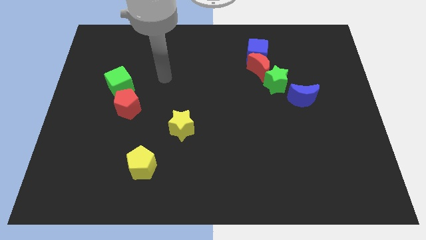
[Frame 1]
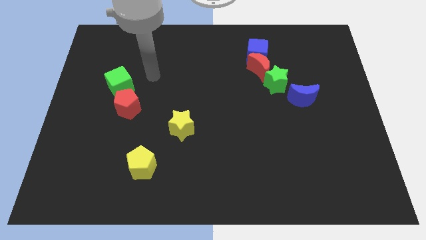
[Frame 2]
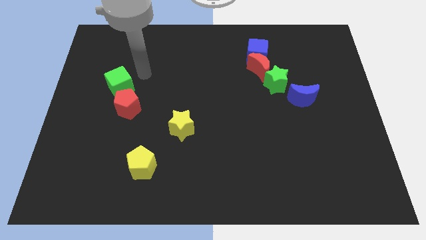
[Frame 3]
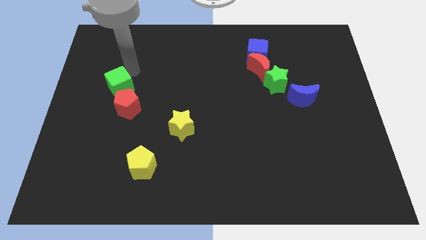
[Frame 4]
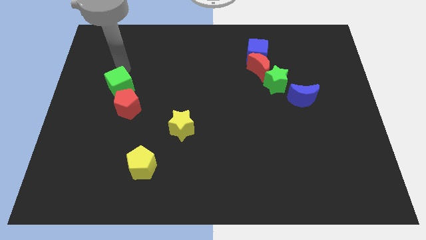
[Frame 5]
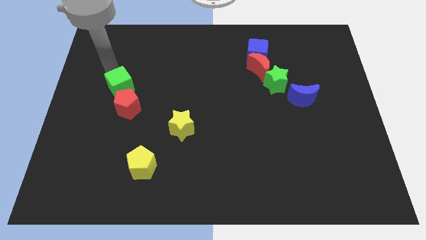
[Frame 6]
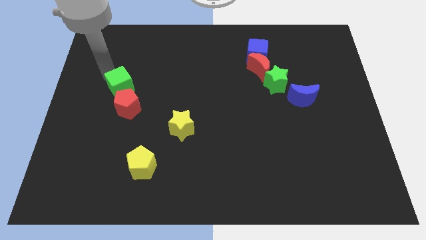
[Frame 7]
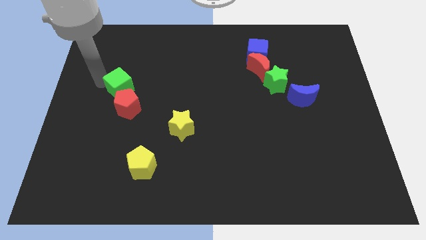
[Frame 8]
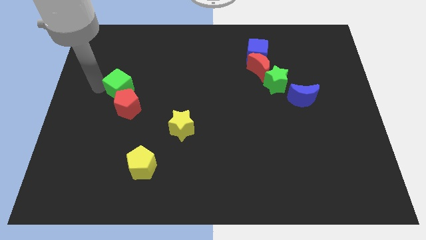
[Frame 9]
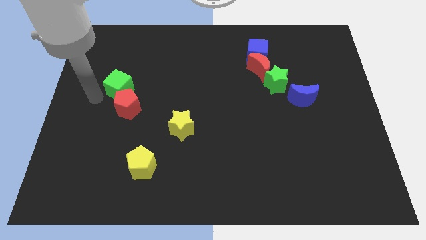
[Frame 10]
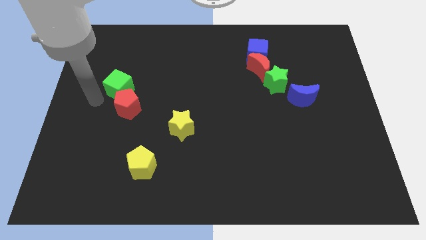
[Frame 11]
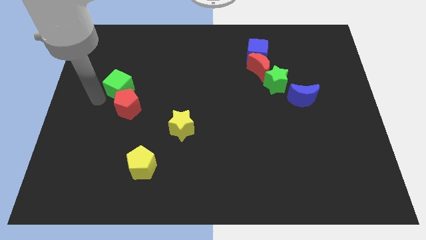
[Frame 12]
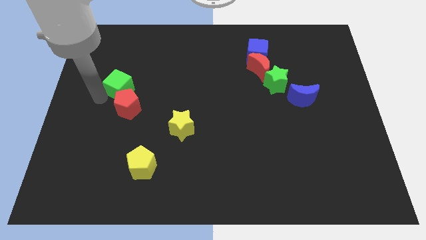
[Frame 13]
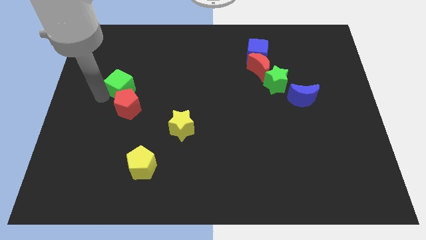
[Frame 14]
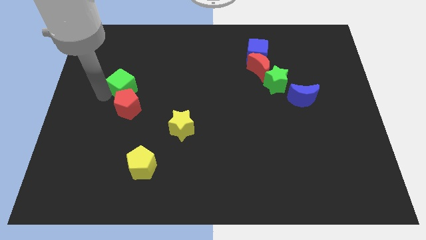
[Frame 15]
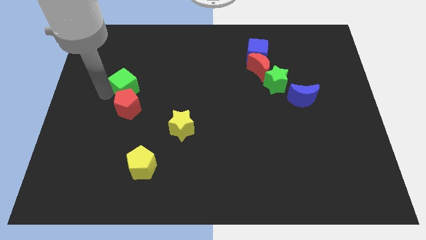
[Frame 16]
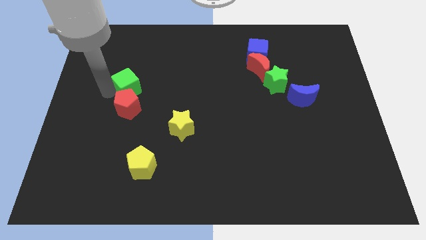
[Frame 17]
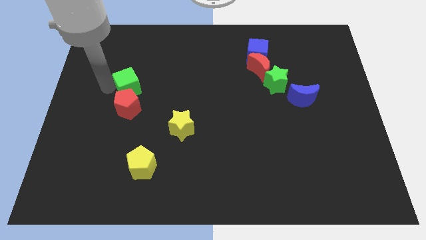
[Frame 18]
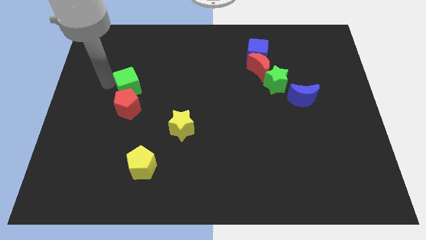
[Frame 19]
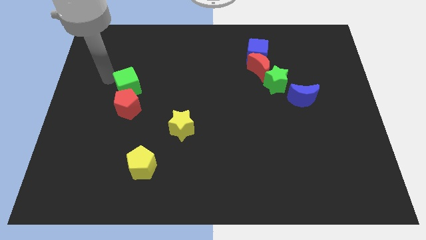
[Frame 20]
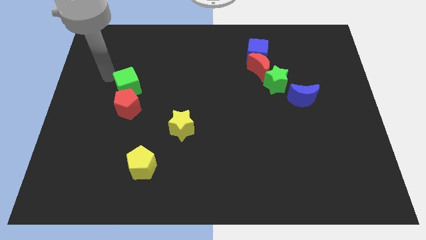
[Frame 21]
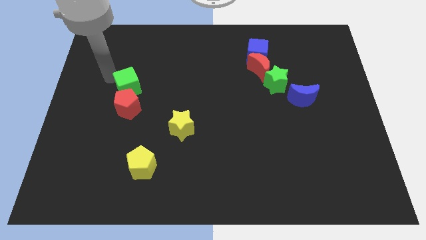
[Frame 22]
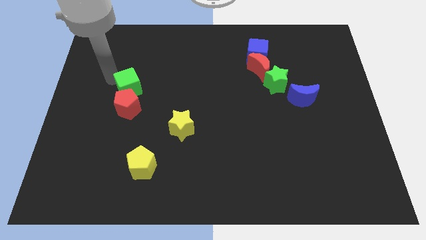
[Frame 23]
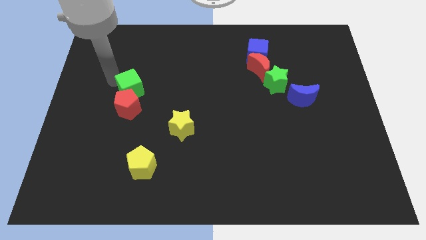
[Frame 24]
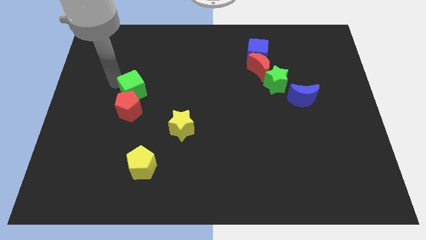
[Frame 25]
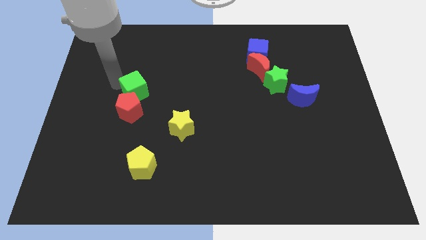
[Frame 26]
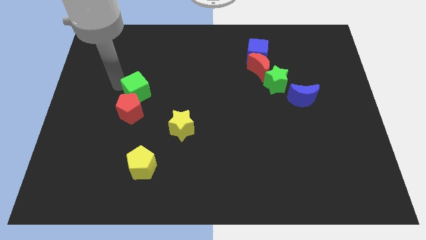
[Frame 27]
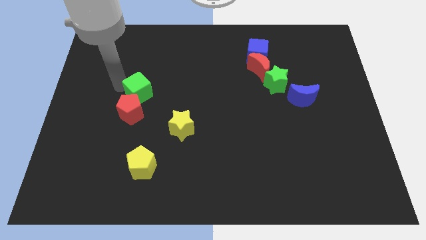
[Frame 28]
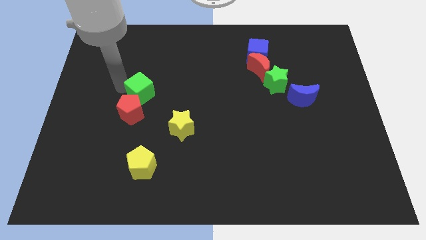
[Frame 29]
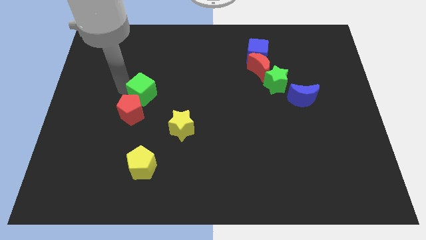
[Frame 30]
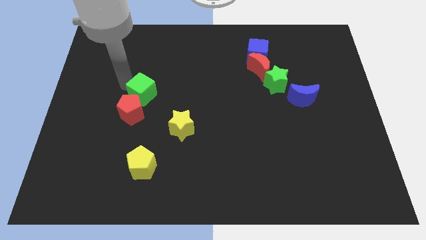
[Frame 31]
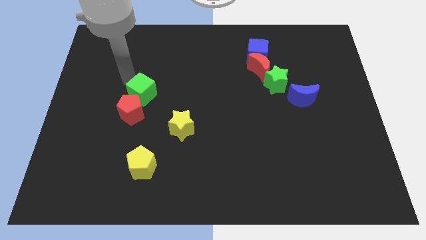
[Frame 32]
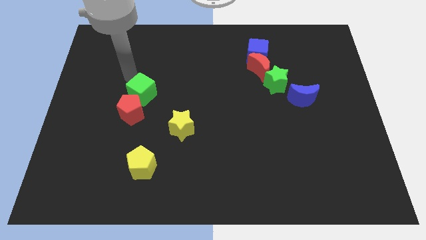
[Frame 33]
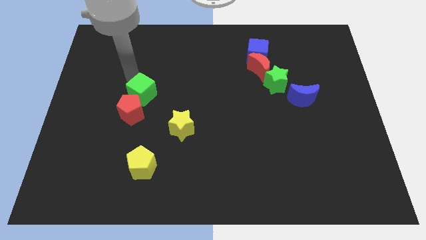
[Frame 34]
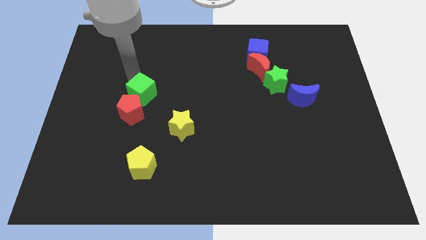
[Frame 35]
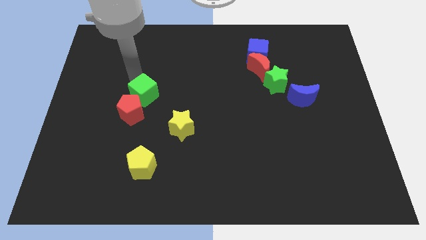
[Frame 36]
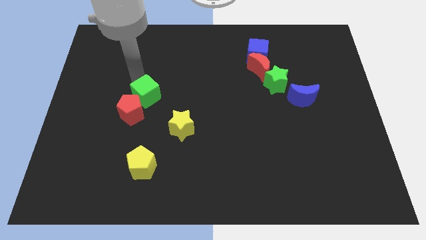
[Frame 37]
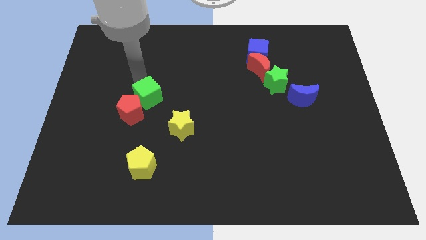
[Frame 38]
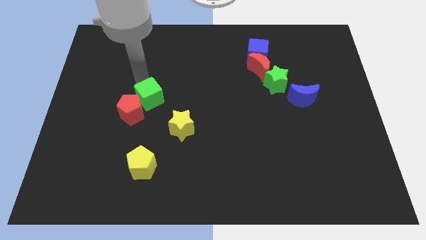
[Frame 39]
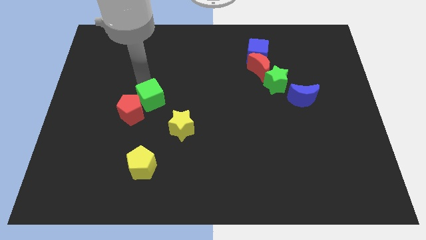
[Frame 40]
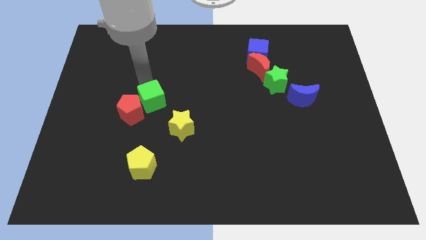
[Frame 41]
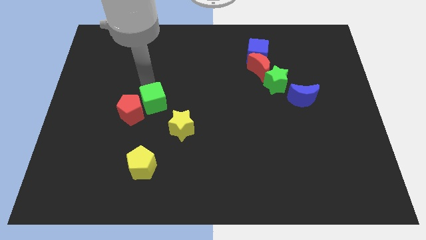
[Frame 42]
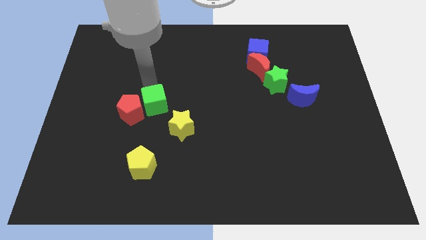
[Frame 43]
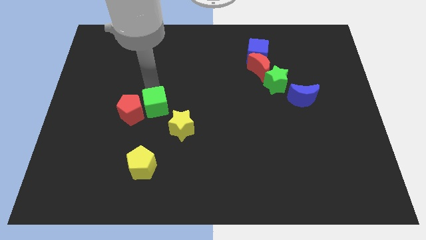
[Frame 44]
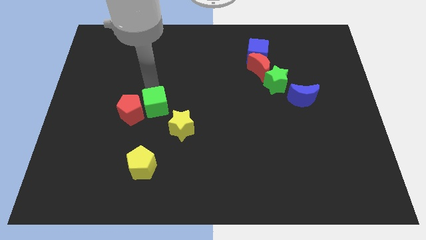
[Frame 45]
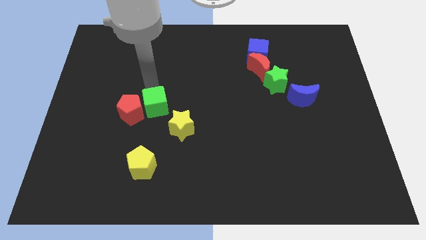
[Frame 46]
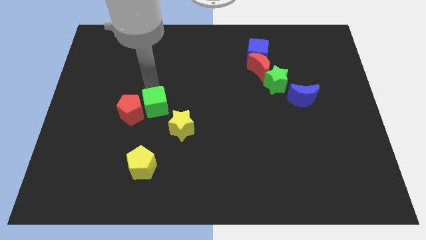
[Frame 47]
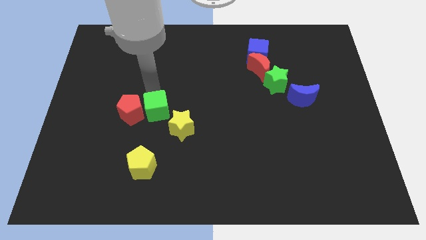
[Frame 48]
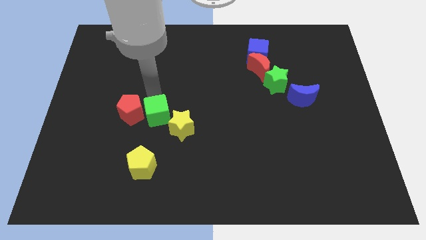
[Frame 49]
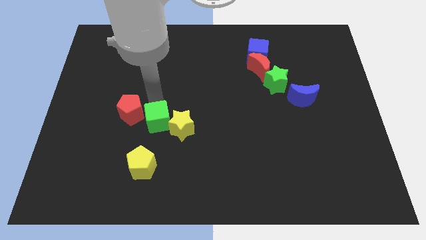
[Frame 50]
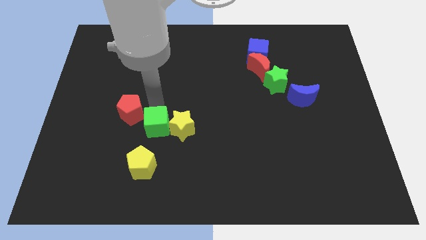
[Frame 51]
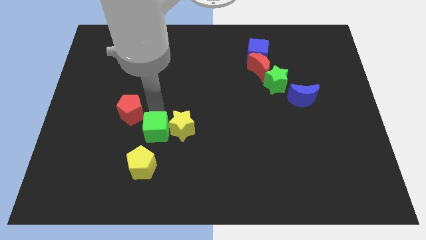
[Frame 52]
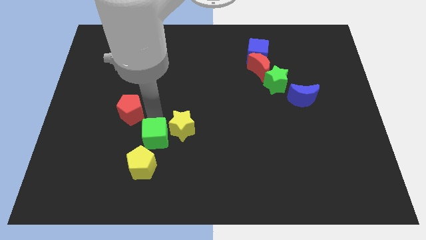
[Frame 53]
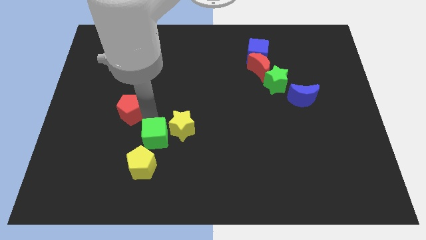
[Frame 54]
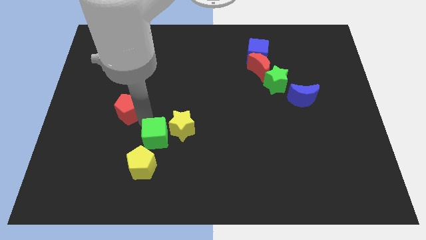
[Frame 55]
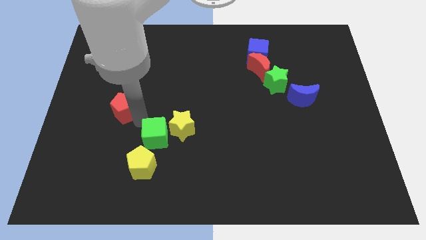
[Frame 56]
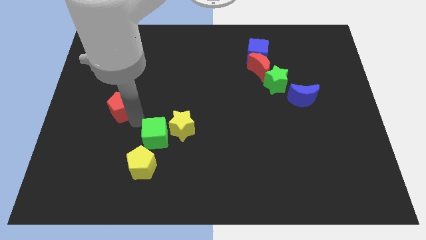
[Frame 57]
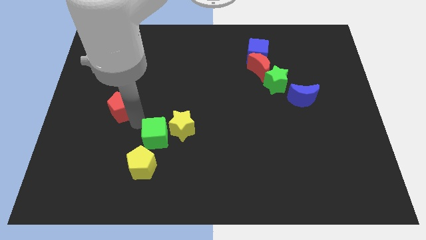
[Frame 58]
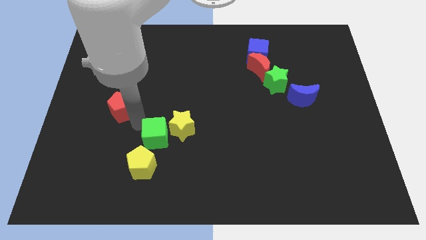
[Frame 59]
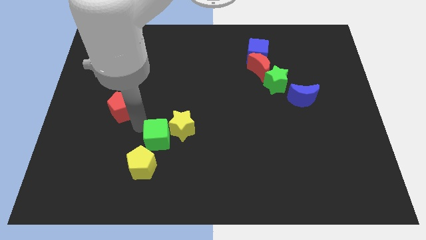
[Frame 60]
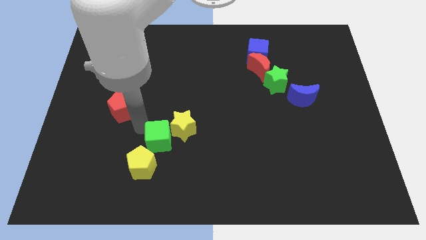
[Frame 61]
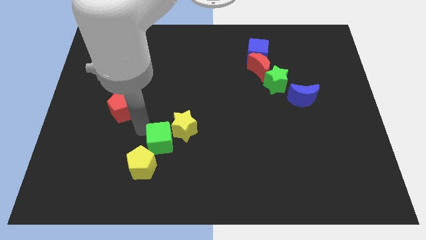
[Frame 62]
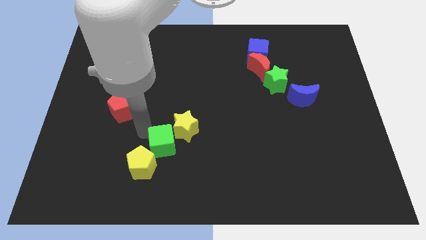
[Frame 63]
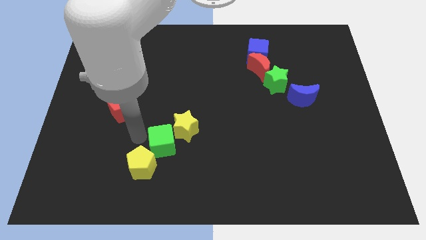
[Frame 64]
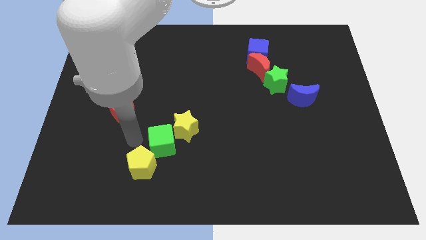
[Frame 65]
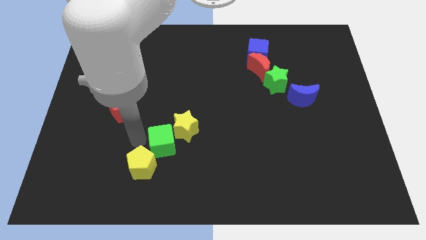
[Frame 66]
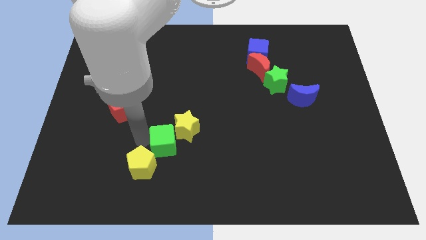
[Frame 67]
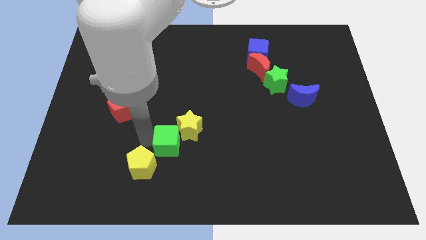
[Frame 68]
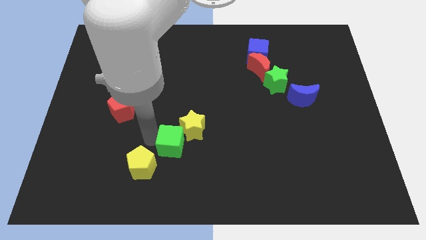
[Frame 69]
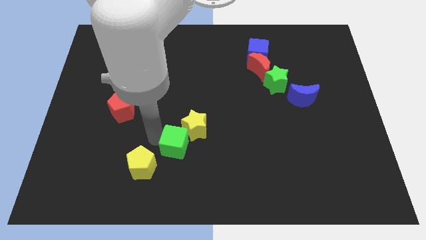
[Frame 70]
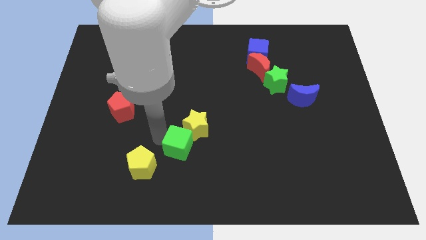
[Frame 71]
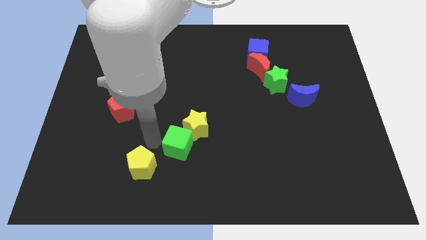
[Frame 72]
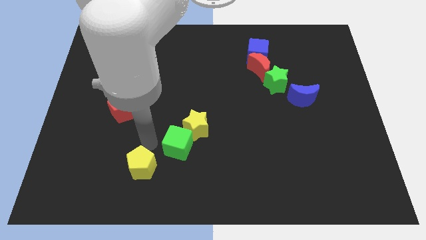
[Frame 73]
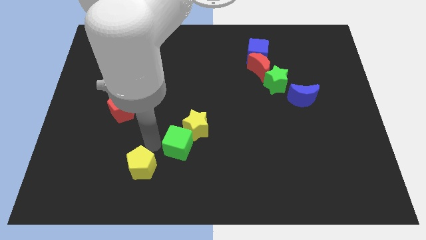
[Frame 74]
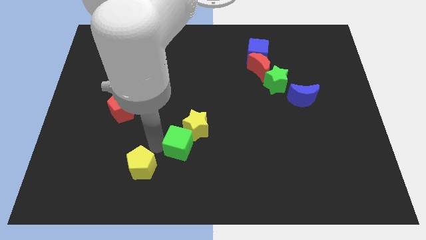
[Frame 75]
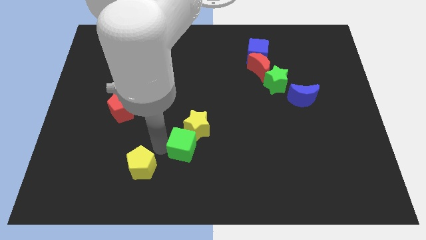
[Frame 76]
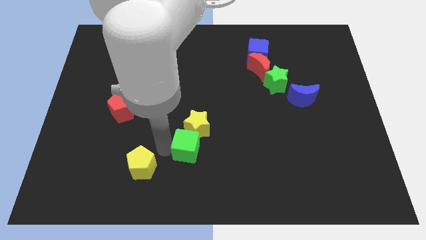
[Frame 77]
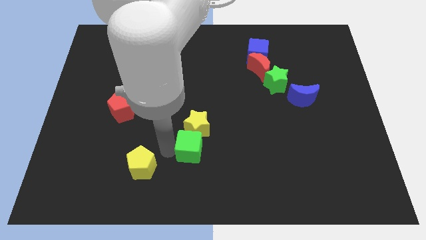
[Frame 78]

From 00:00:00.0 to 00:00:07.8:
move the green cube to the bottom right of the yellow star
